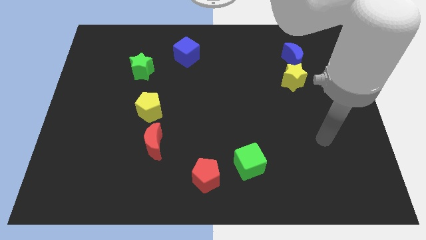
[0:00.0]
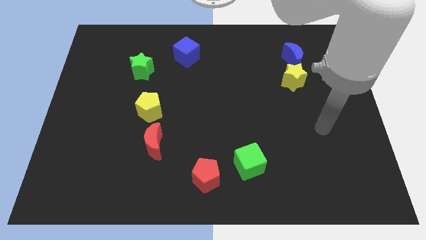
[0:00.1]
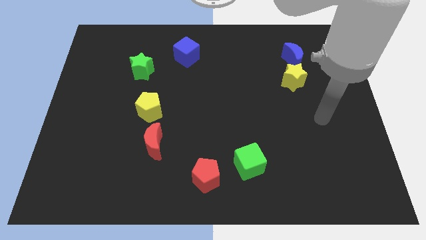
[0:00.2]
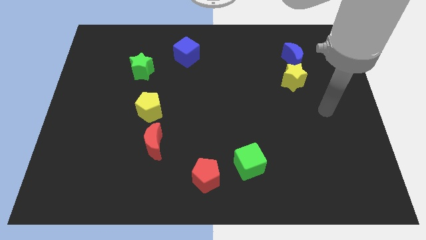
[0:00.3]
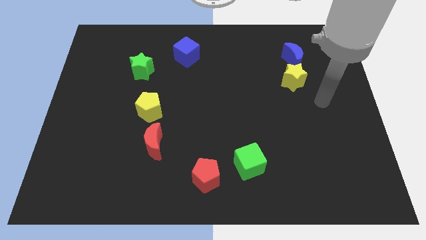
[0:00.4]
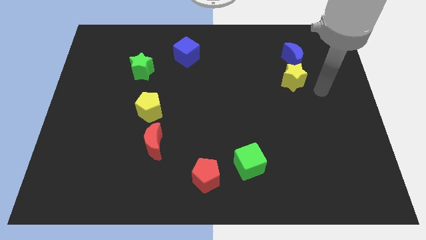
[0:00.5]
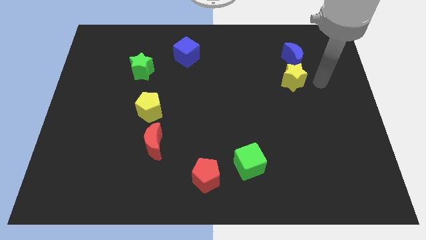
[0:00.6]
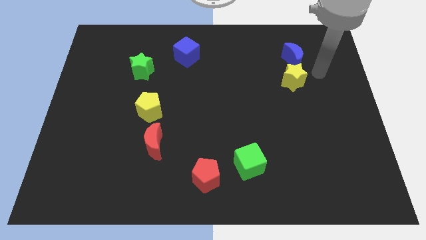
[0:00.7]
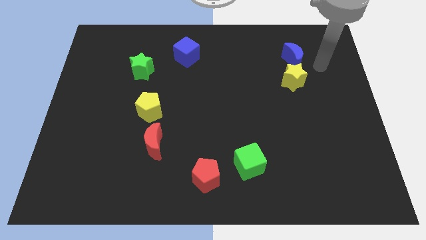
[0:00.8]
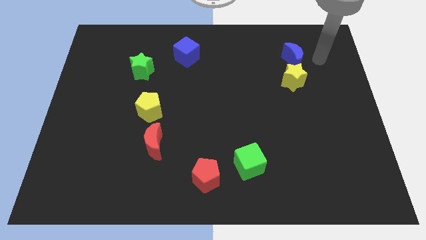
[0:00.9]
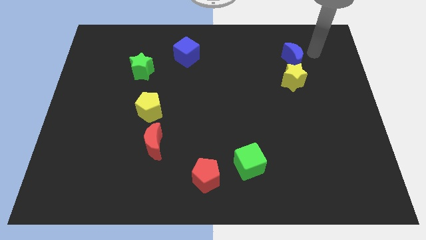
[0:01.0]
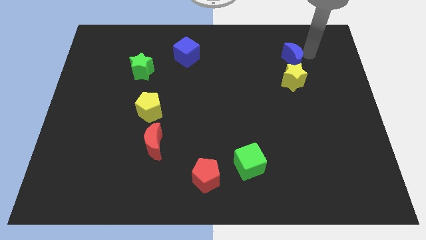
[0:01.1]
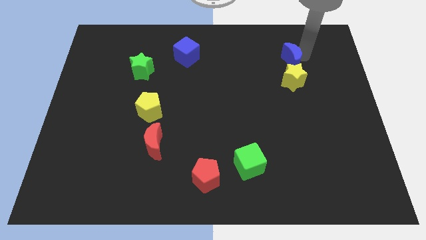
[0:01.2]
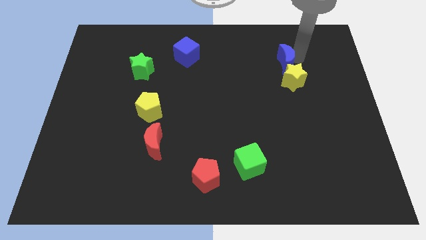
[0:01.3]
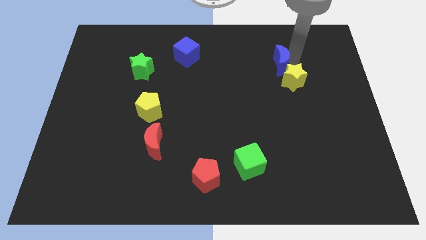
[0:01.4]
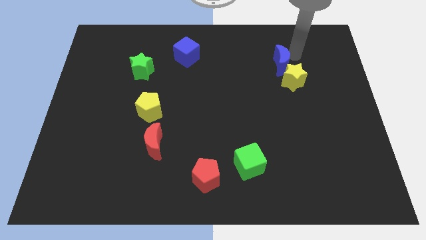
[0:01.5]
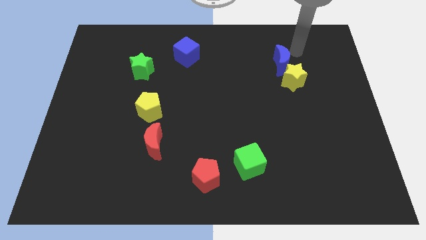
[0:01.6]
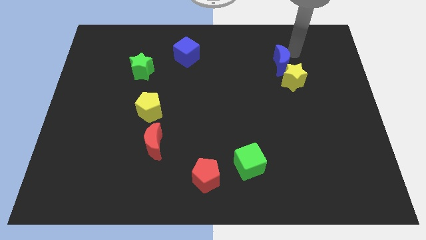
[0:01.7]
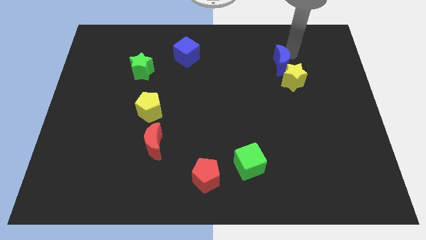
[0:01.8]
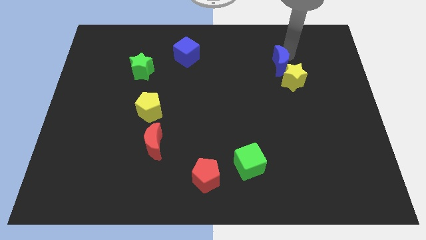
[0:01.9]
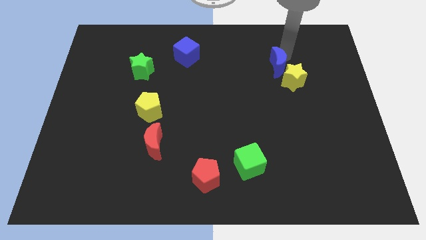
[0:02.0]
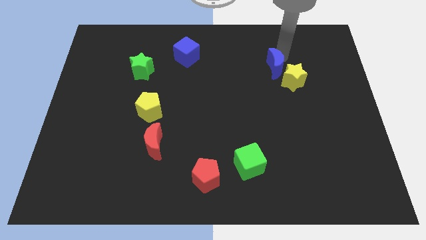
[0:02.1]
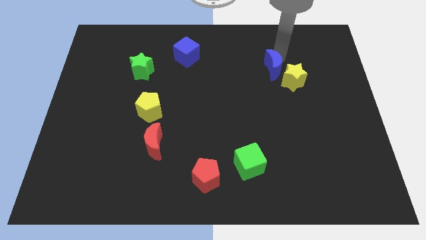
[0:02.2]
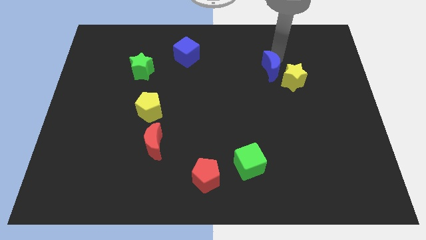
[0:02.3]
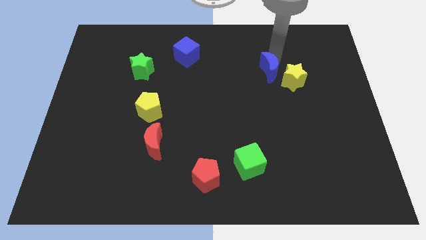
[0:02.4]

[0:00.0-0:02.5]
push the blue moon down and then to the left a little bit

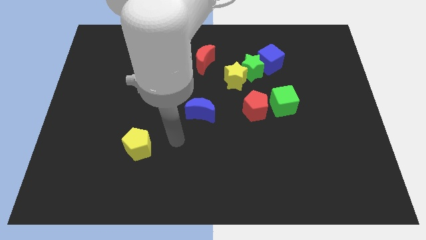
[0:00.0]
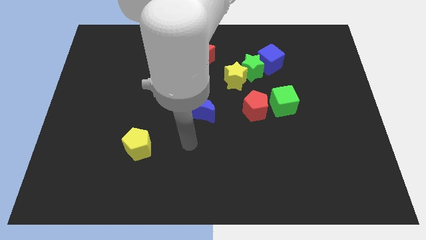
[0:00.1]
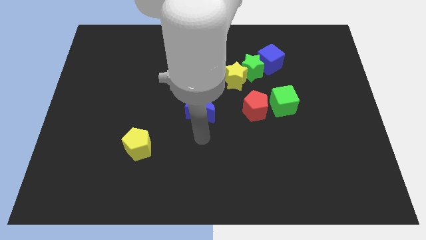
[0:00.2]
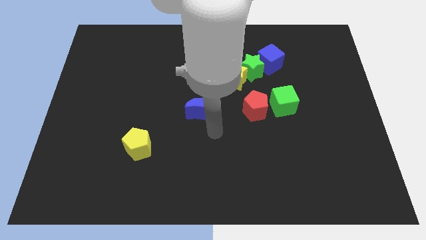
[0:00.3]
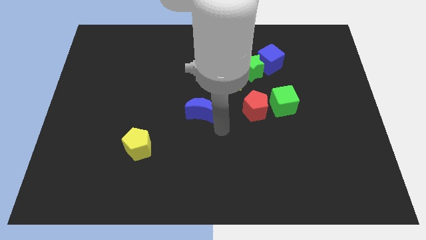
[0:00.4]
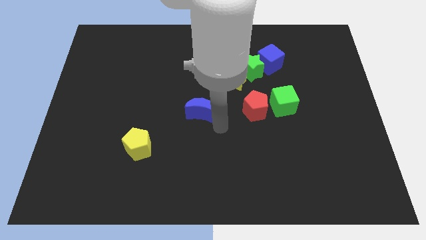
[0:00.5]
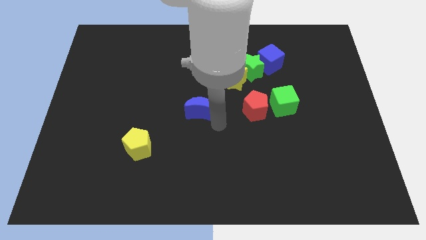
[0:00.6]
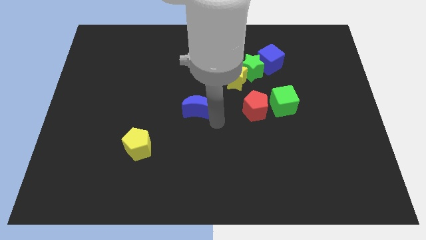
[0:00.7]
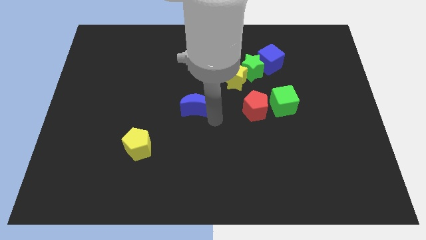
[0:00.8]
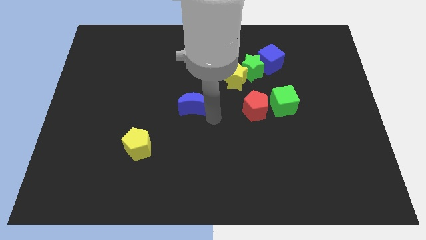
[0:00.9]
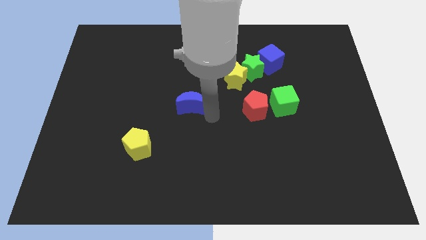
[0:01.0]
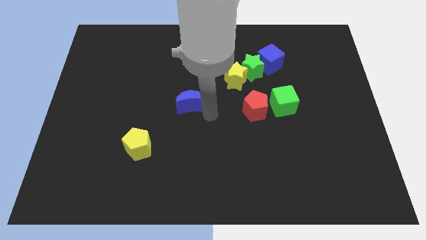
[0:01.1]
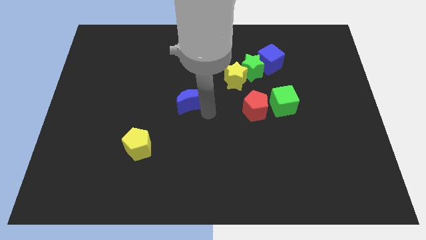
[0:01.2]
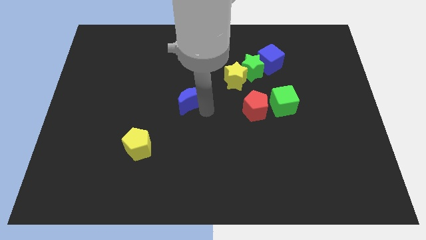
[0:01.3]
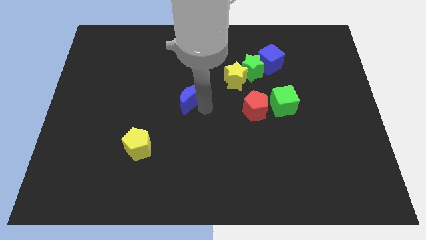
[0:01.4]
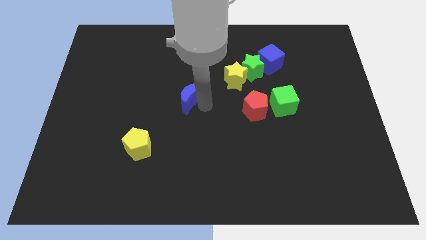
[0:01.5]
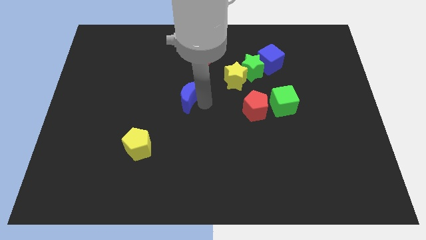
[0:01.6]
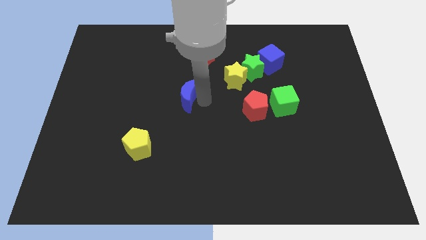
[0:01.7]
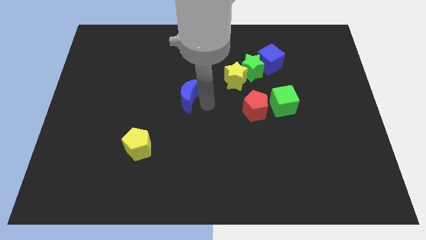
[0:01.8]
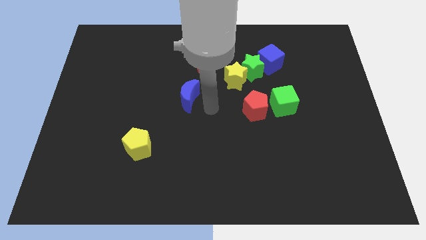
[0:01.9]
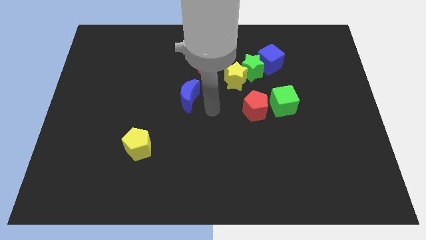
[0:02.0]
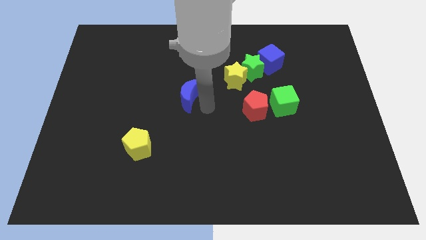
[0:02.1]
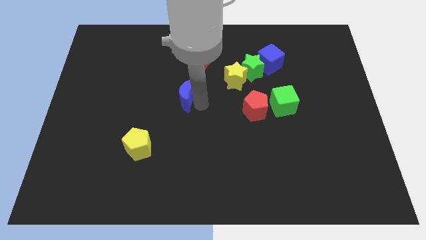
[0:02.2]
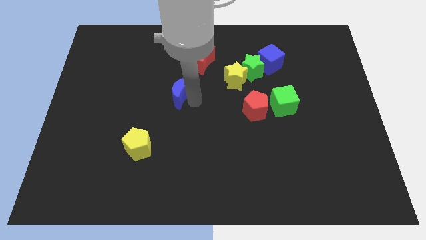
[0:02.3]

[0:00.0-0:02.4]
move the blue moon upwards and then to the left a bit

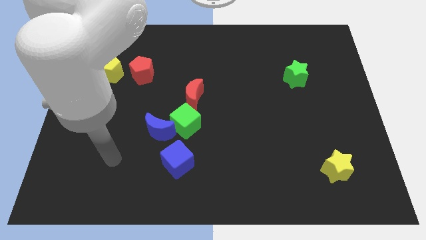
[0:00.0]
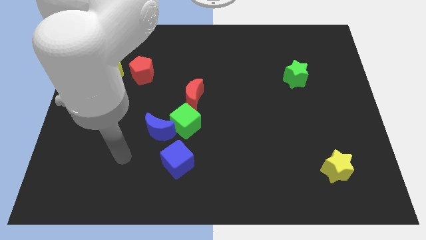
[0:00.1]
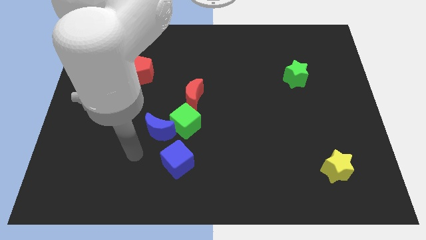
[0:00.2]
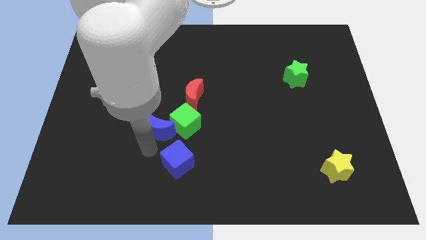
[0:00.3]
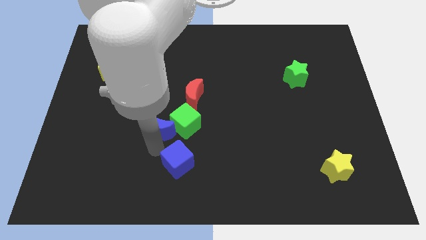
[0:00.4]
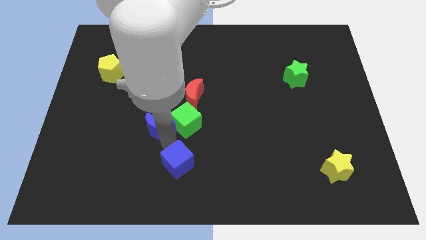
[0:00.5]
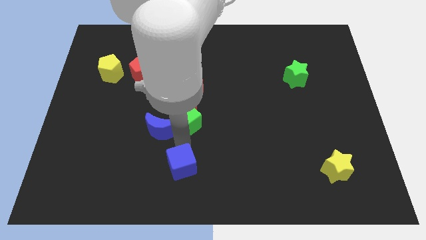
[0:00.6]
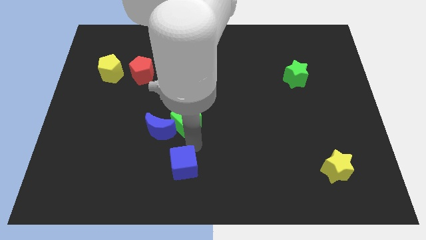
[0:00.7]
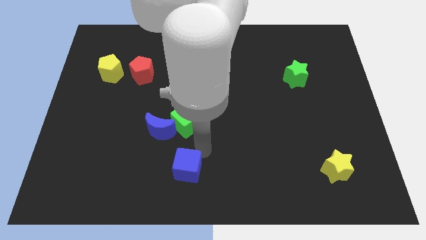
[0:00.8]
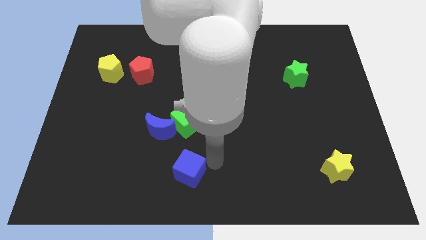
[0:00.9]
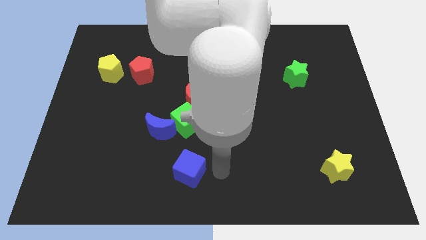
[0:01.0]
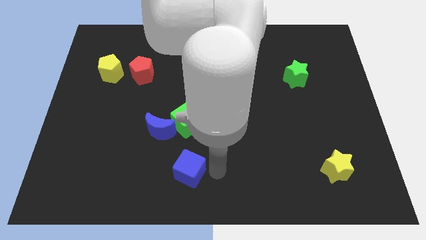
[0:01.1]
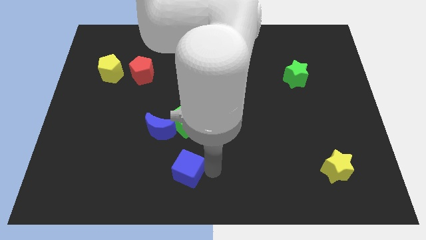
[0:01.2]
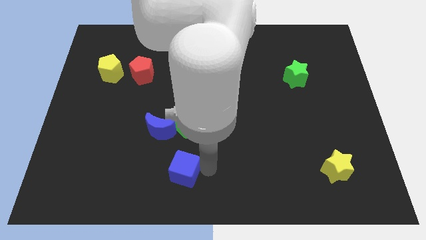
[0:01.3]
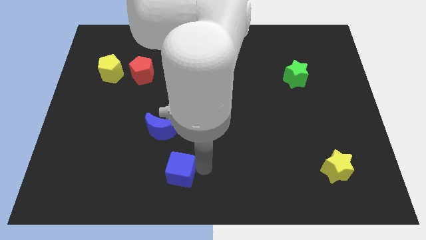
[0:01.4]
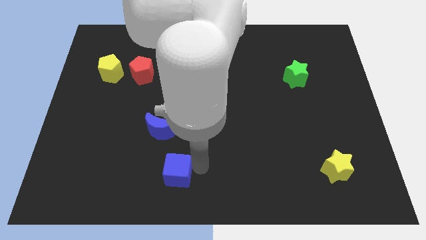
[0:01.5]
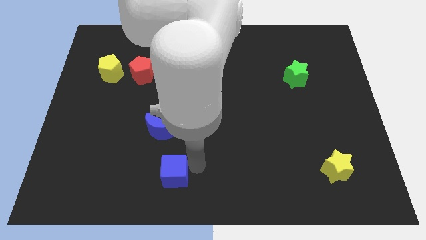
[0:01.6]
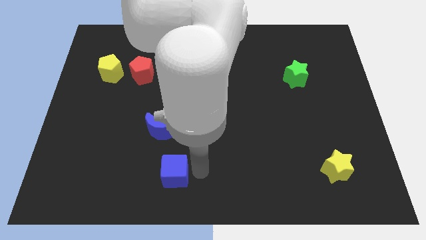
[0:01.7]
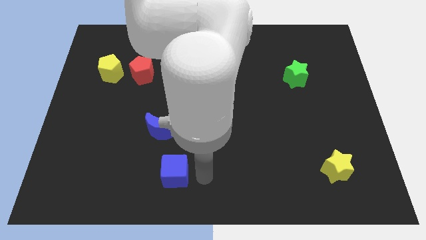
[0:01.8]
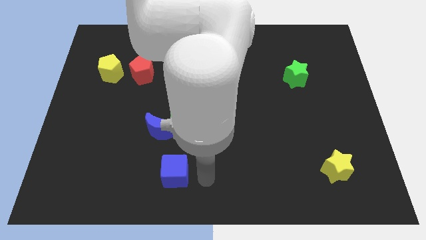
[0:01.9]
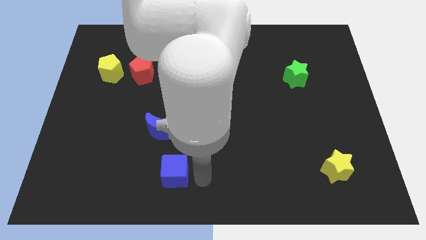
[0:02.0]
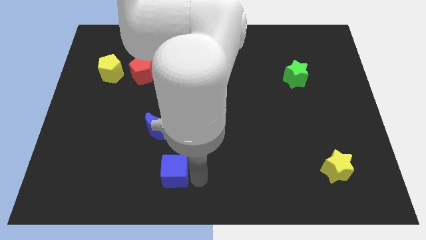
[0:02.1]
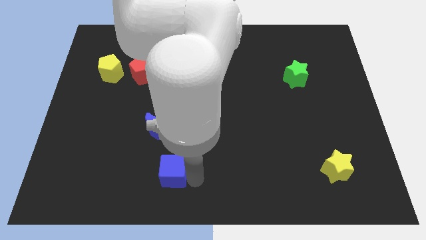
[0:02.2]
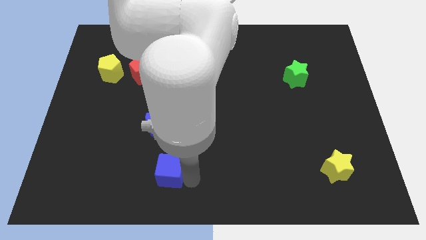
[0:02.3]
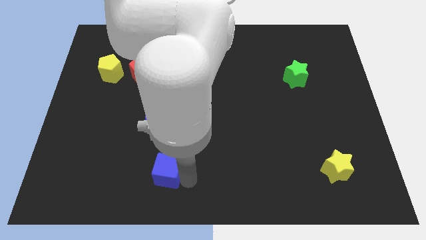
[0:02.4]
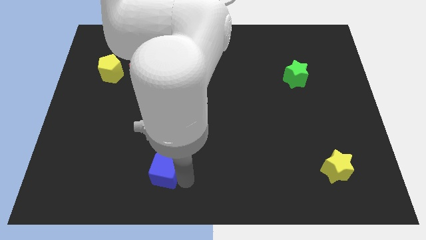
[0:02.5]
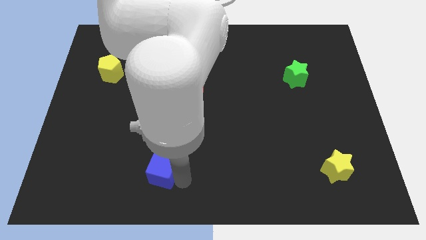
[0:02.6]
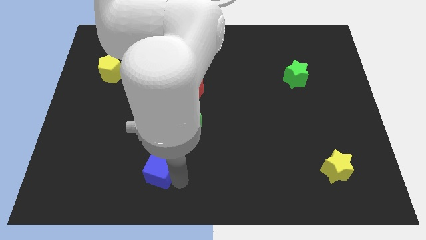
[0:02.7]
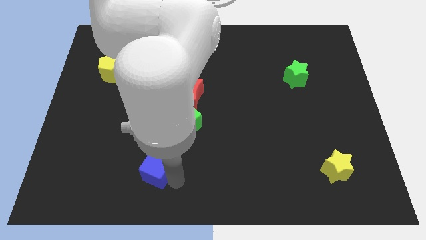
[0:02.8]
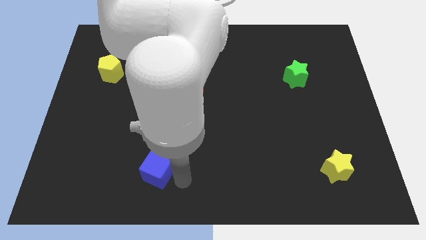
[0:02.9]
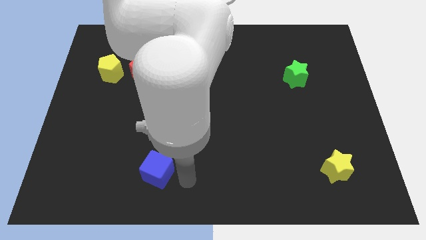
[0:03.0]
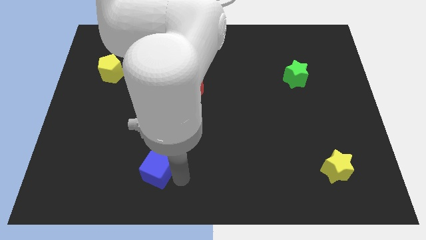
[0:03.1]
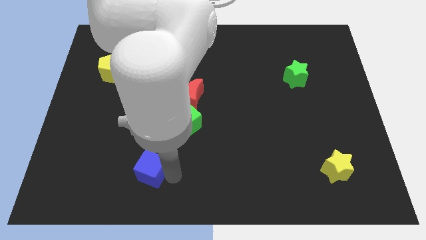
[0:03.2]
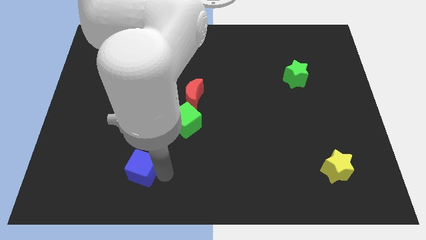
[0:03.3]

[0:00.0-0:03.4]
slide the blue cube a bit left
